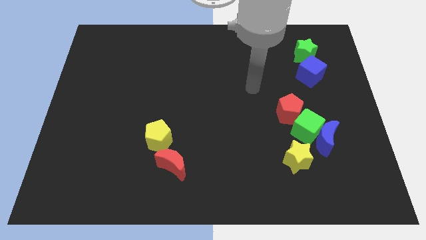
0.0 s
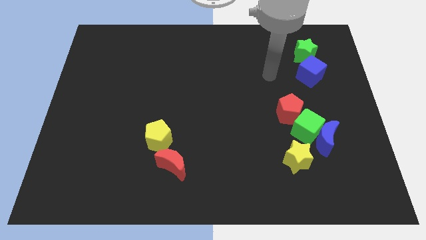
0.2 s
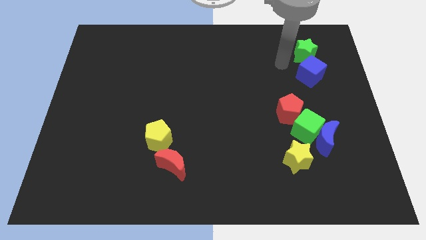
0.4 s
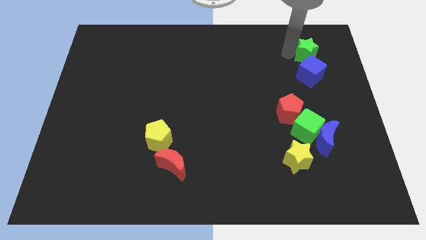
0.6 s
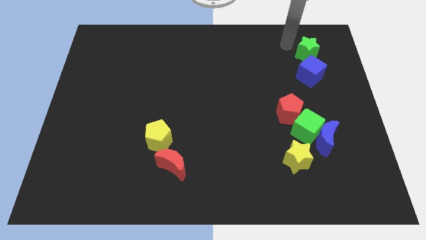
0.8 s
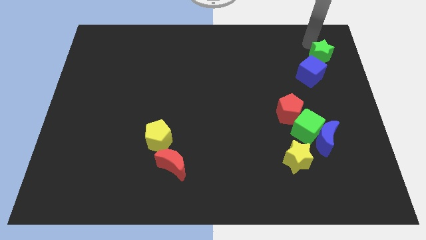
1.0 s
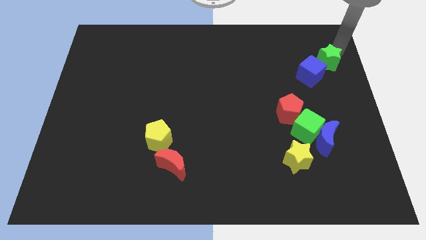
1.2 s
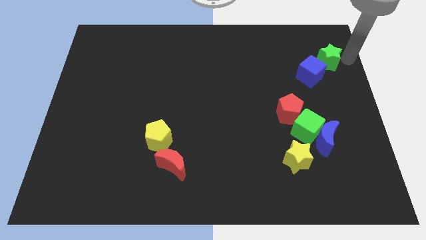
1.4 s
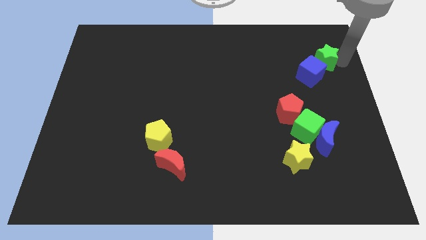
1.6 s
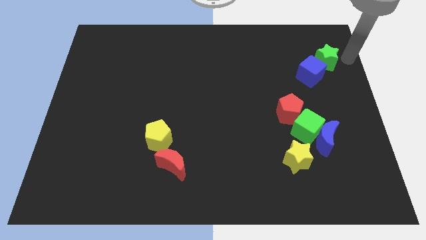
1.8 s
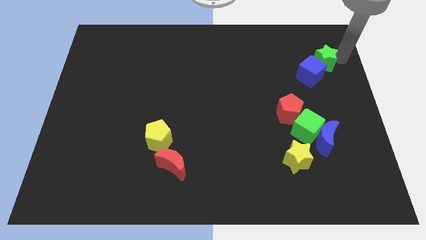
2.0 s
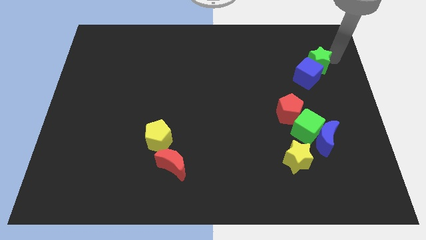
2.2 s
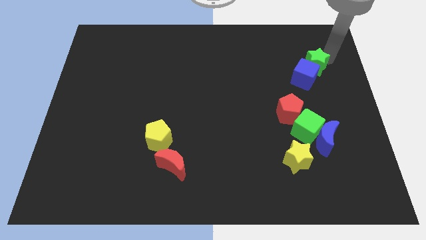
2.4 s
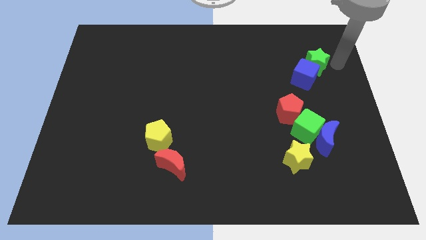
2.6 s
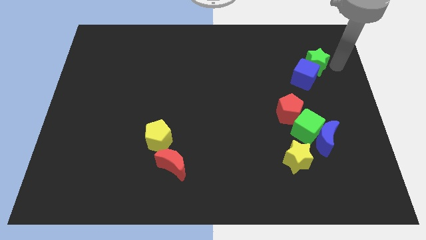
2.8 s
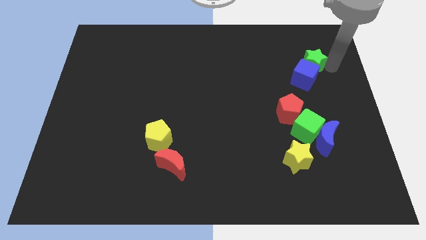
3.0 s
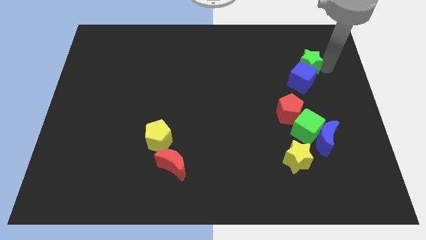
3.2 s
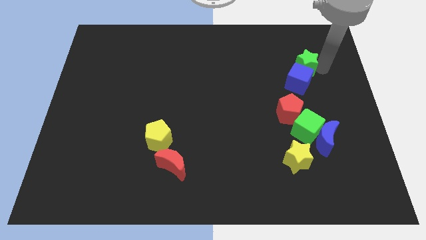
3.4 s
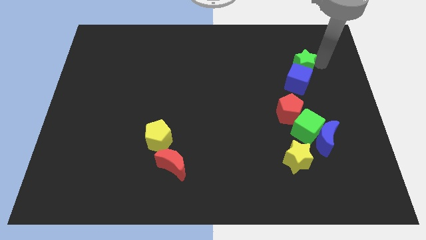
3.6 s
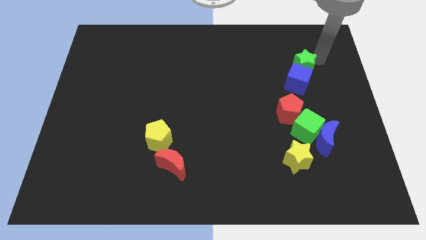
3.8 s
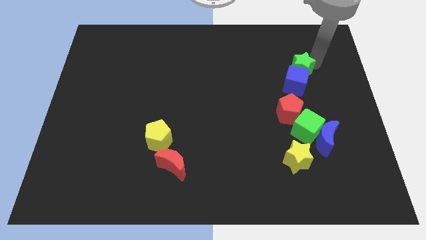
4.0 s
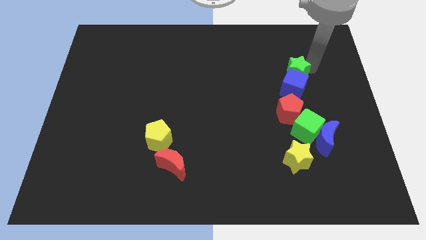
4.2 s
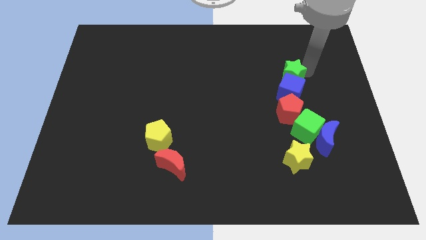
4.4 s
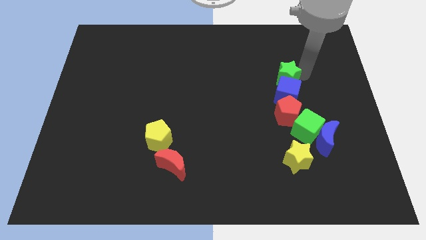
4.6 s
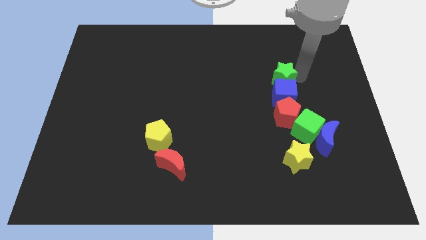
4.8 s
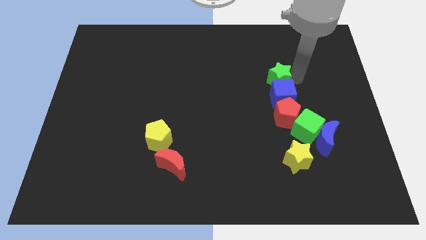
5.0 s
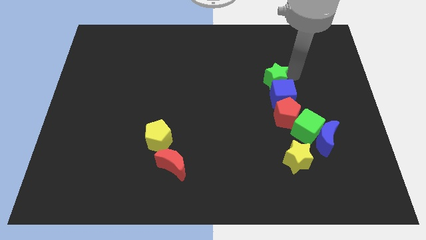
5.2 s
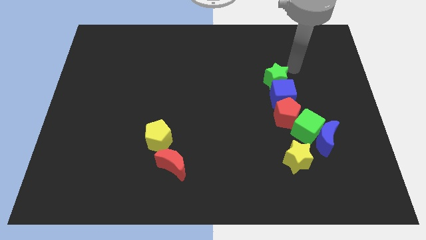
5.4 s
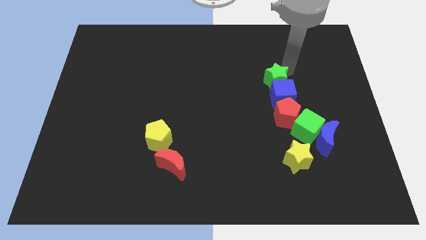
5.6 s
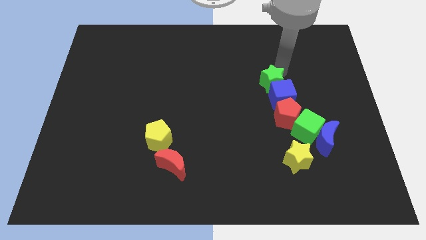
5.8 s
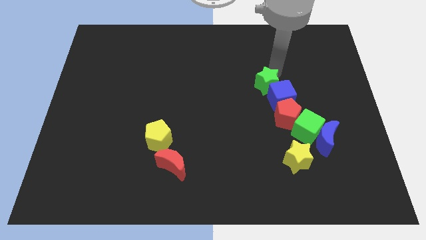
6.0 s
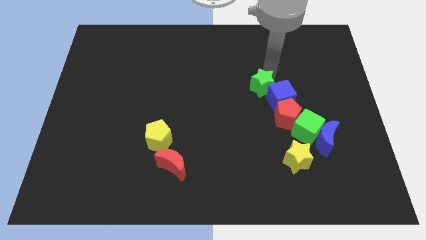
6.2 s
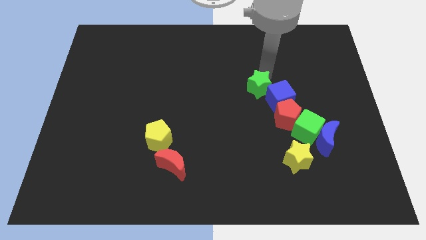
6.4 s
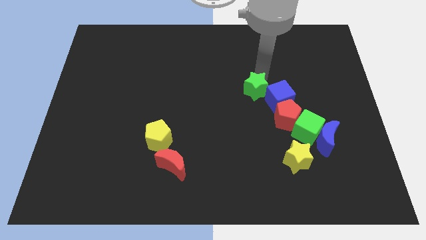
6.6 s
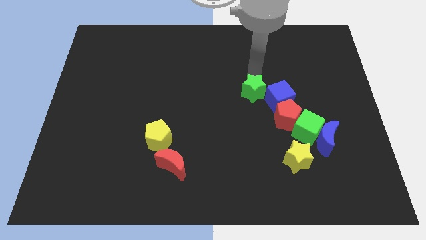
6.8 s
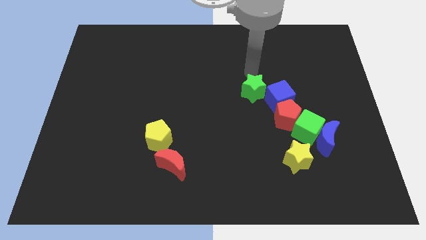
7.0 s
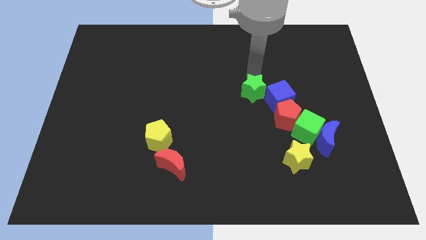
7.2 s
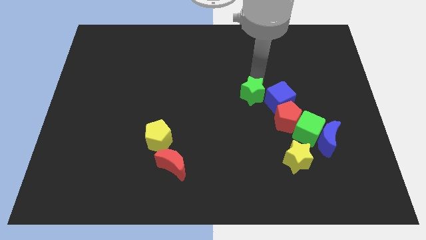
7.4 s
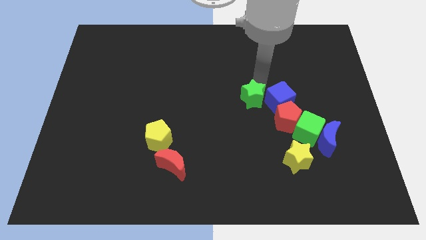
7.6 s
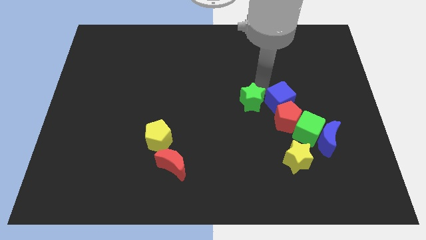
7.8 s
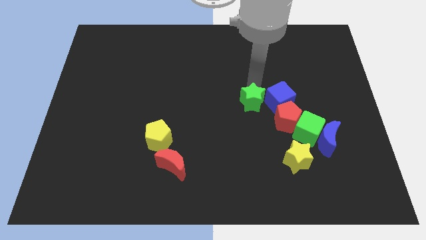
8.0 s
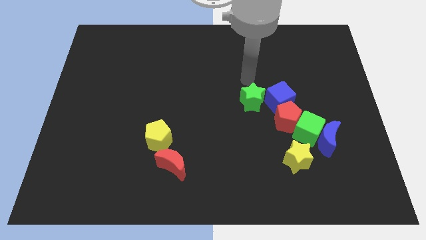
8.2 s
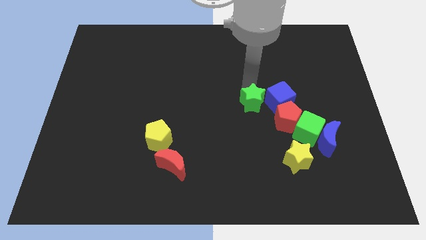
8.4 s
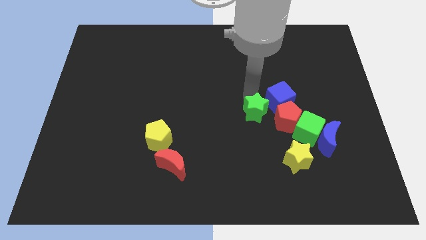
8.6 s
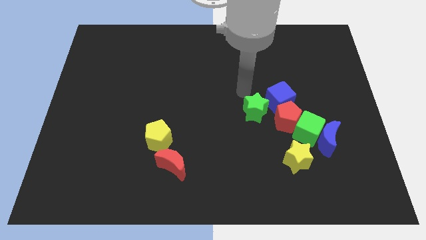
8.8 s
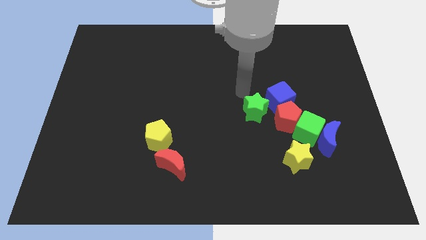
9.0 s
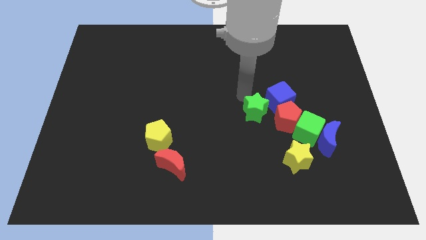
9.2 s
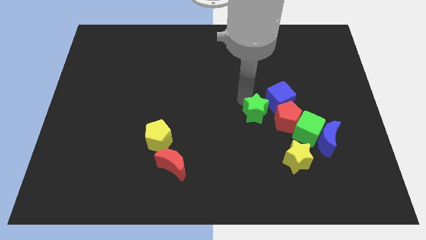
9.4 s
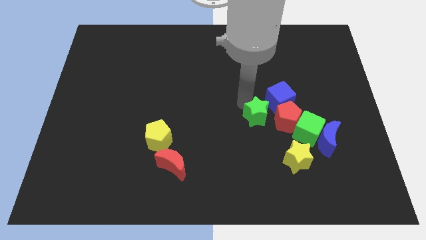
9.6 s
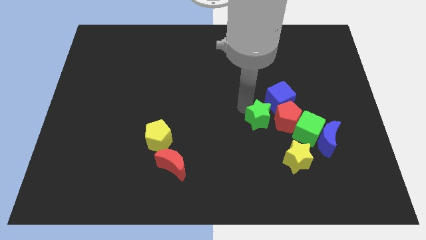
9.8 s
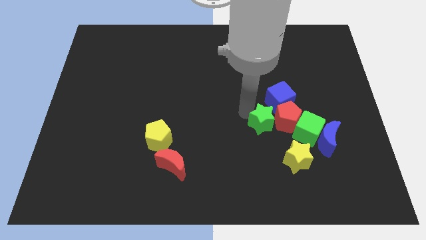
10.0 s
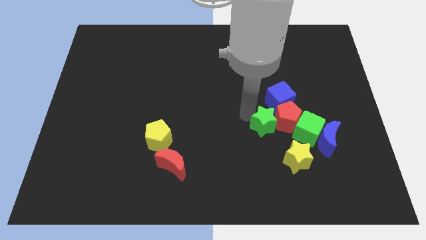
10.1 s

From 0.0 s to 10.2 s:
put the green star to the left of the blue moon

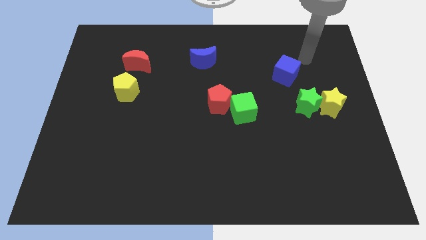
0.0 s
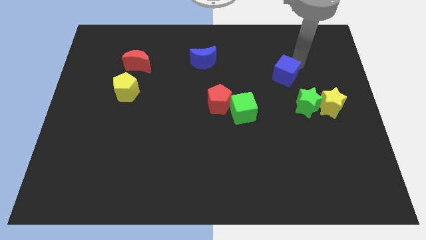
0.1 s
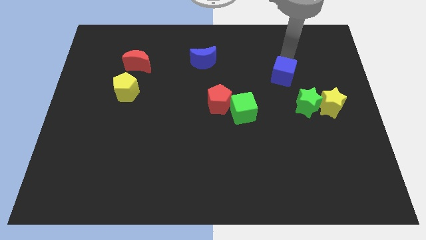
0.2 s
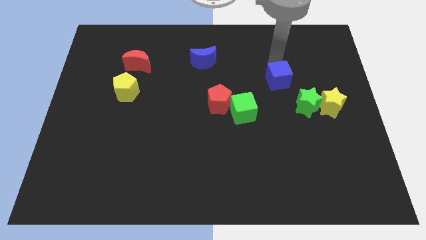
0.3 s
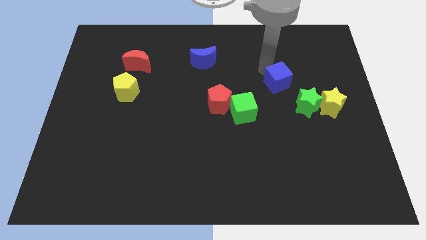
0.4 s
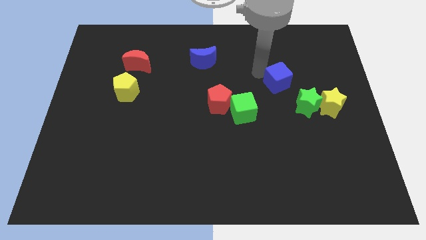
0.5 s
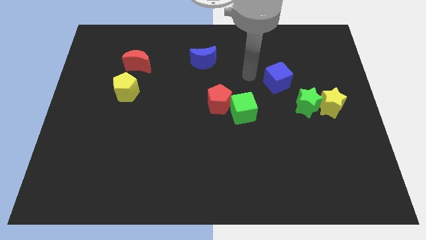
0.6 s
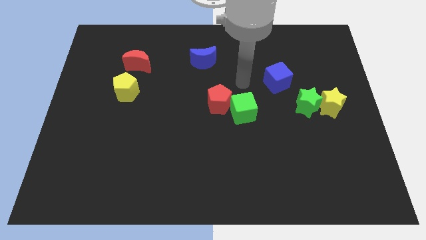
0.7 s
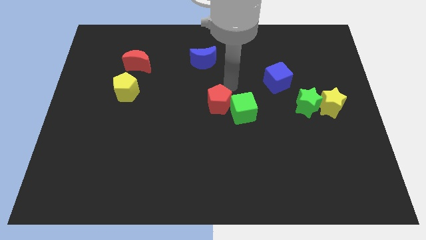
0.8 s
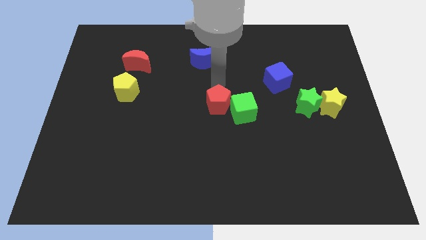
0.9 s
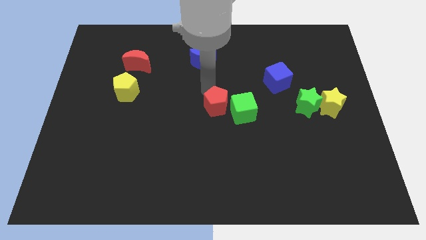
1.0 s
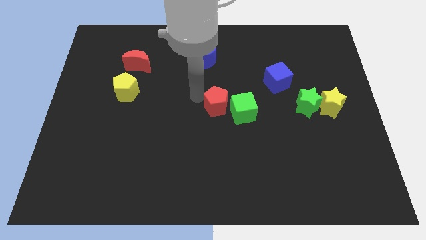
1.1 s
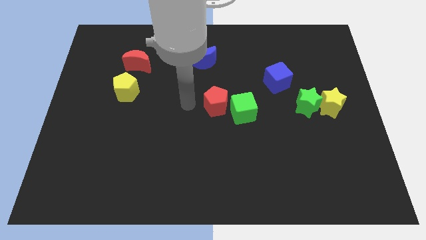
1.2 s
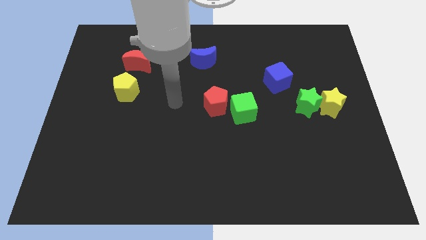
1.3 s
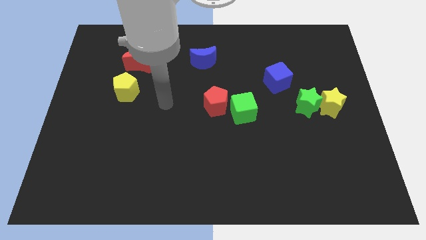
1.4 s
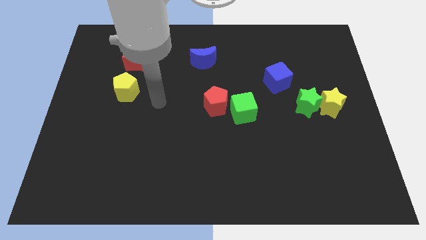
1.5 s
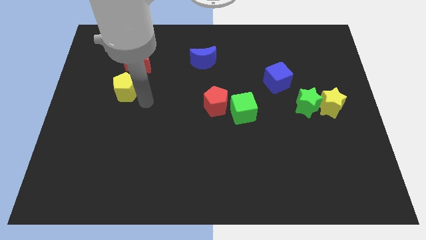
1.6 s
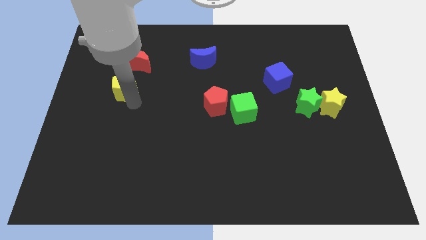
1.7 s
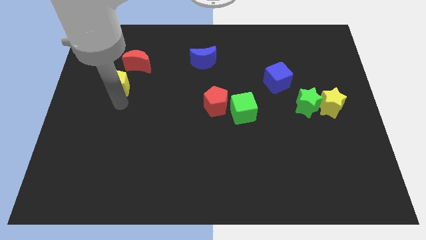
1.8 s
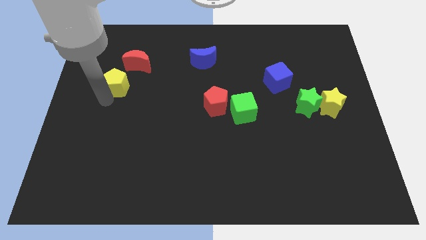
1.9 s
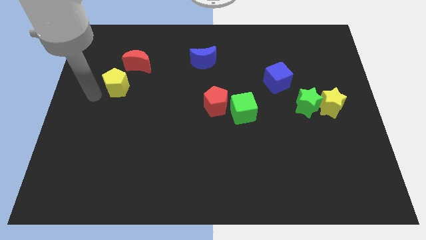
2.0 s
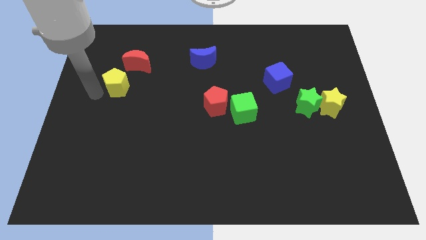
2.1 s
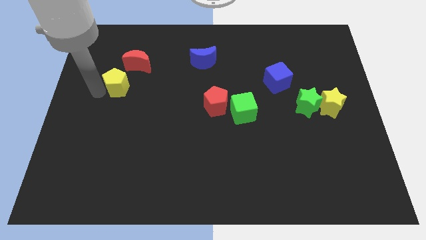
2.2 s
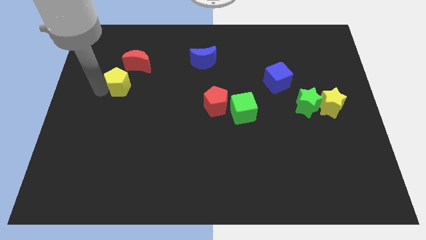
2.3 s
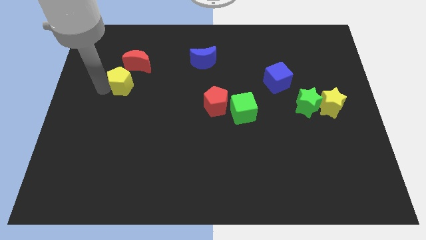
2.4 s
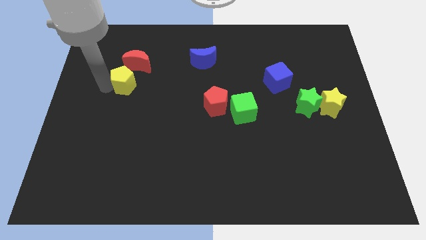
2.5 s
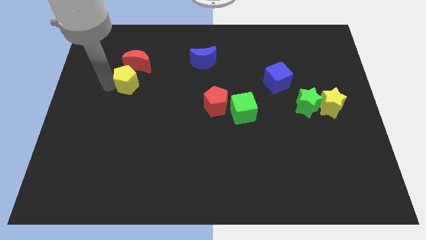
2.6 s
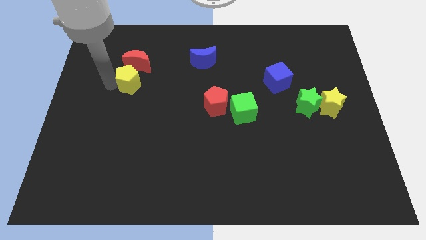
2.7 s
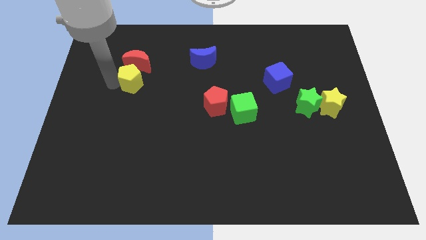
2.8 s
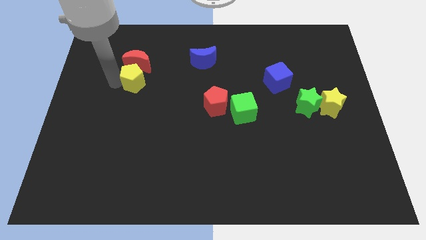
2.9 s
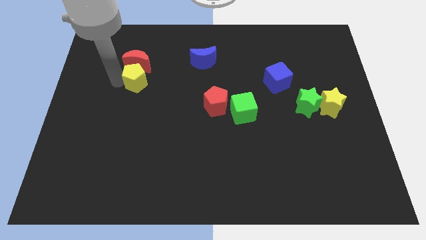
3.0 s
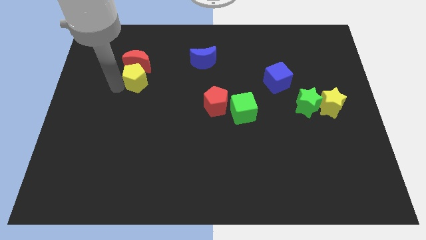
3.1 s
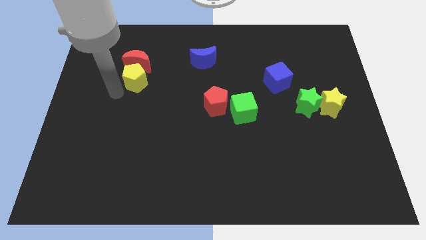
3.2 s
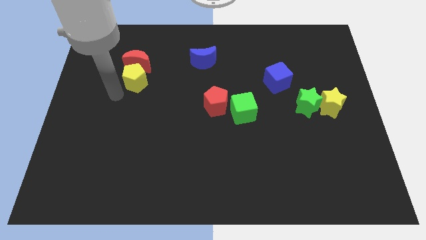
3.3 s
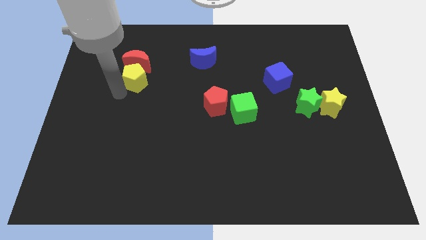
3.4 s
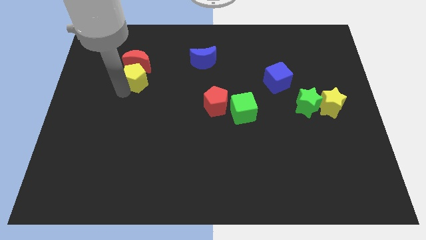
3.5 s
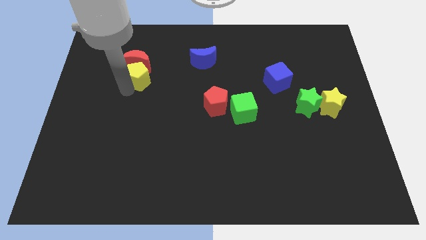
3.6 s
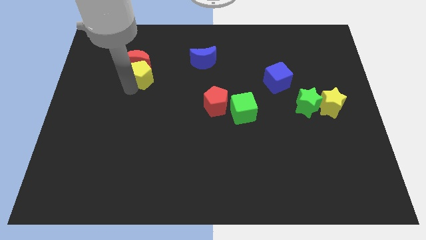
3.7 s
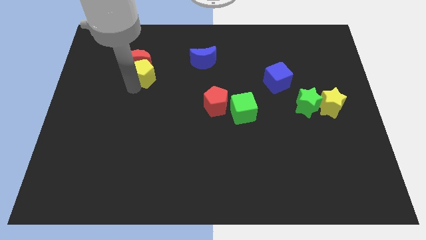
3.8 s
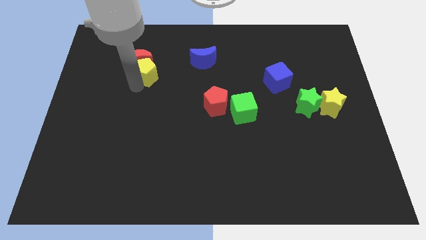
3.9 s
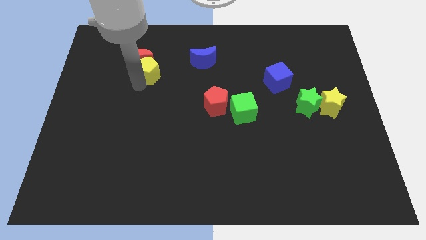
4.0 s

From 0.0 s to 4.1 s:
slide the yellow pentagon left of the blue moon
